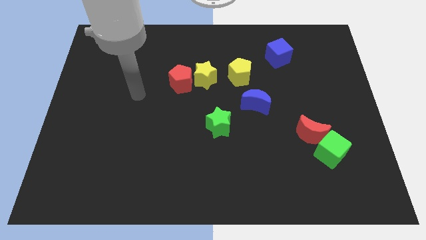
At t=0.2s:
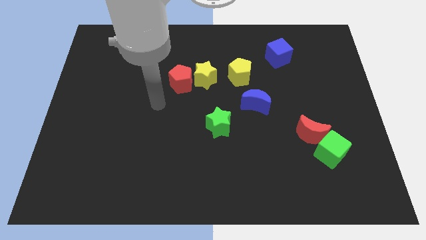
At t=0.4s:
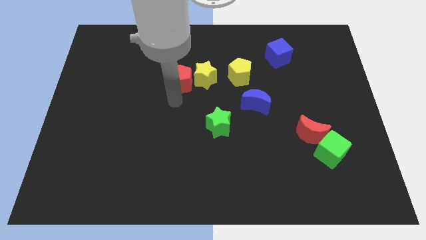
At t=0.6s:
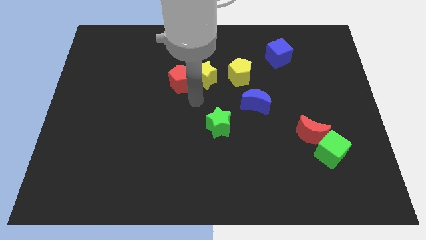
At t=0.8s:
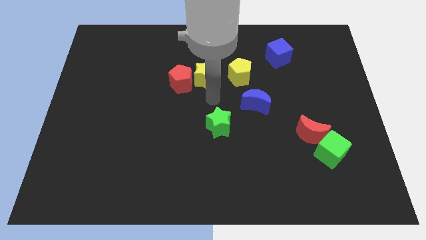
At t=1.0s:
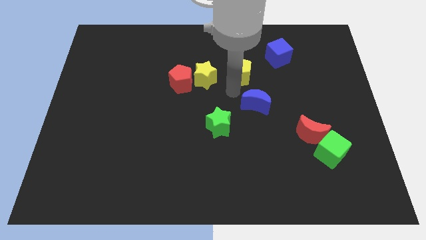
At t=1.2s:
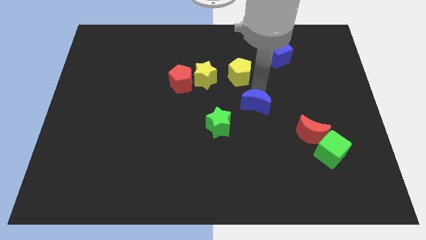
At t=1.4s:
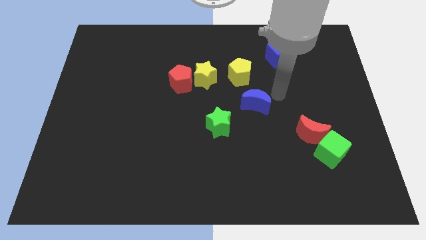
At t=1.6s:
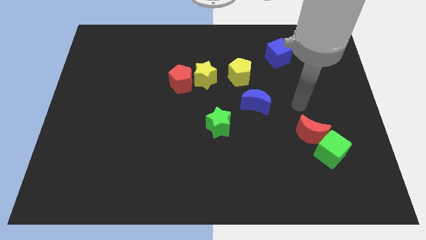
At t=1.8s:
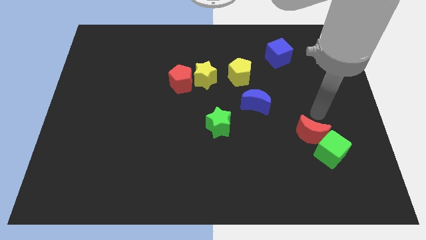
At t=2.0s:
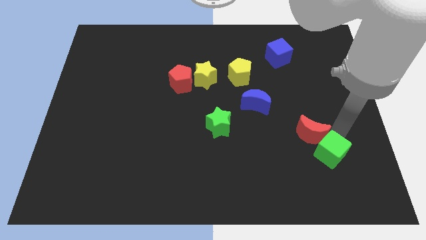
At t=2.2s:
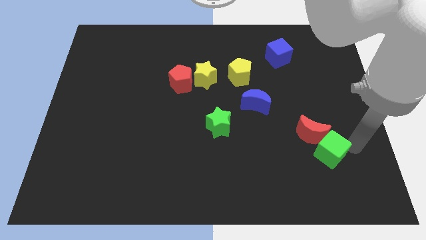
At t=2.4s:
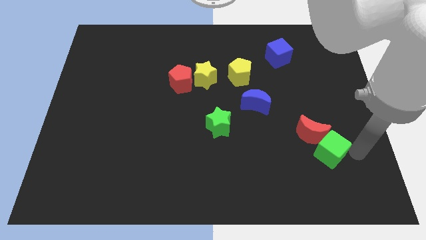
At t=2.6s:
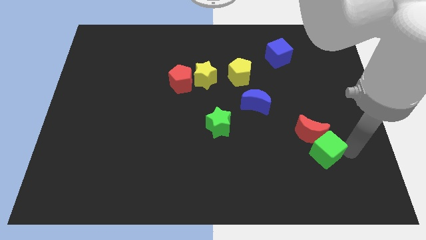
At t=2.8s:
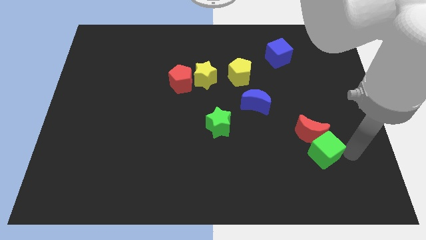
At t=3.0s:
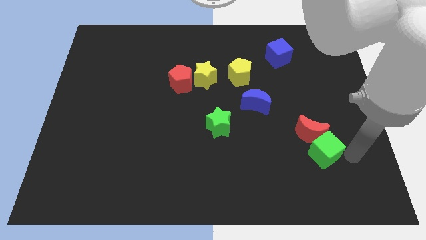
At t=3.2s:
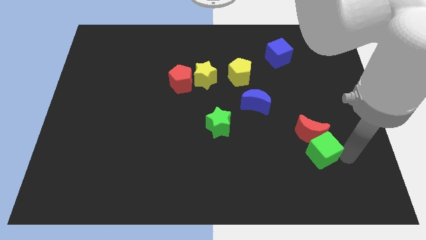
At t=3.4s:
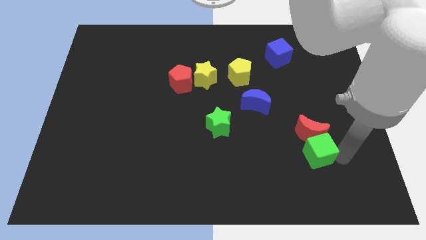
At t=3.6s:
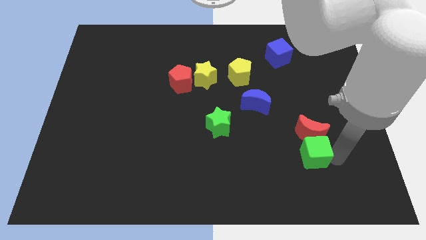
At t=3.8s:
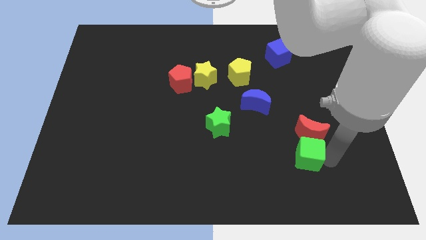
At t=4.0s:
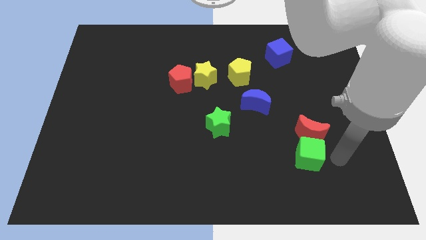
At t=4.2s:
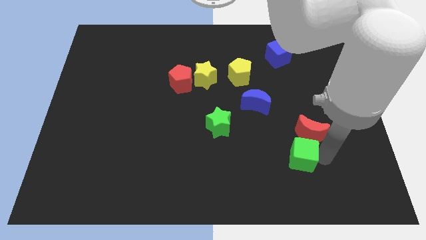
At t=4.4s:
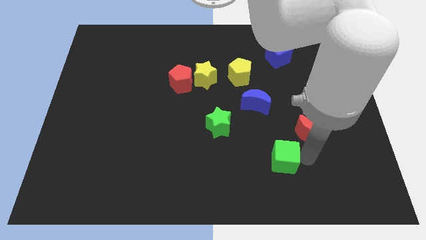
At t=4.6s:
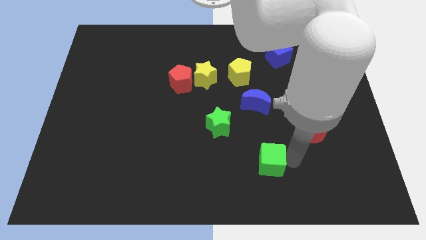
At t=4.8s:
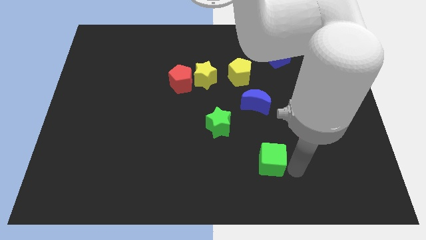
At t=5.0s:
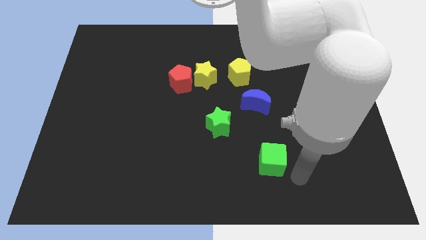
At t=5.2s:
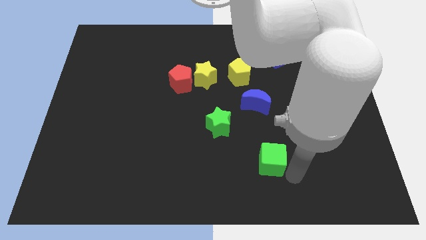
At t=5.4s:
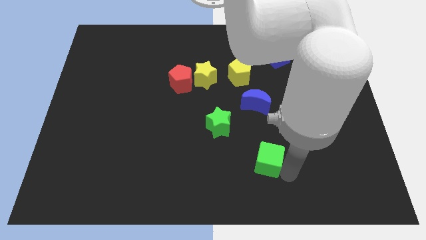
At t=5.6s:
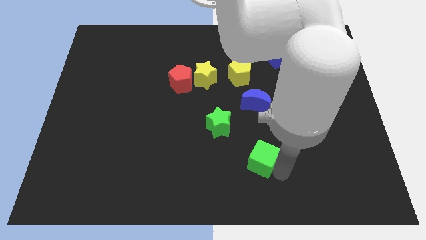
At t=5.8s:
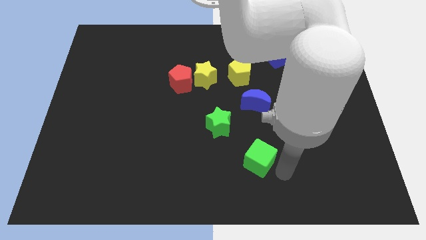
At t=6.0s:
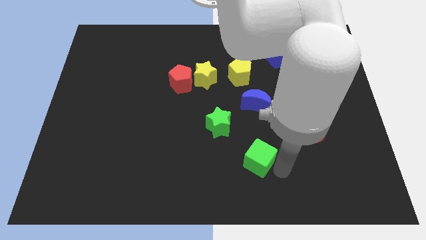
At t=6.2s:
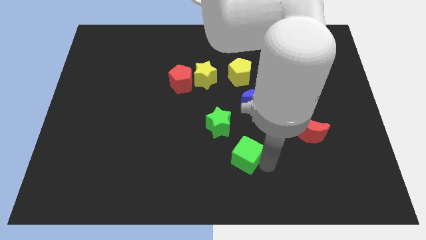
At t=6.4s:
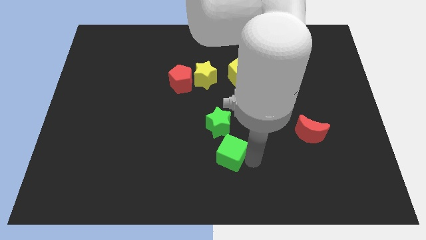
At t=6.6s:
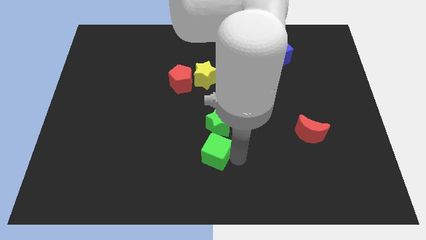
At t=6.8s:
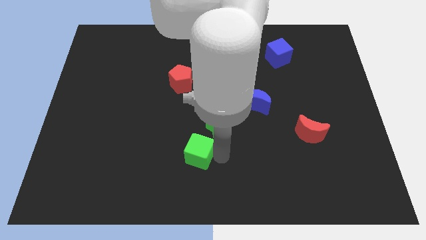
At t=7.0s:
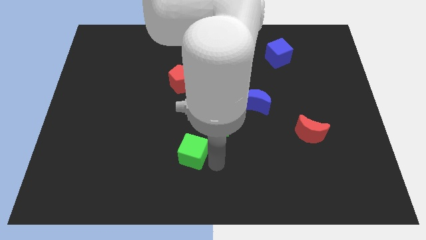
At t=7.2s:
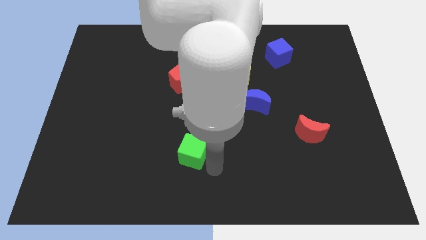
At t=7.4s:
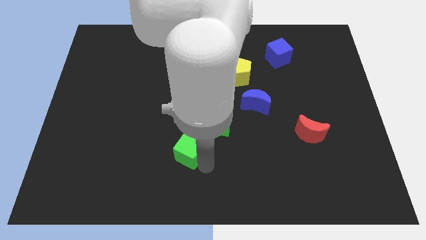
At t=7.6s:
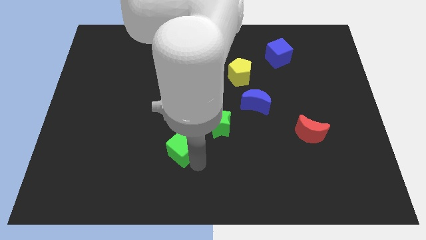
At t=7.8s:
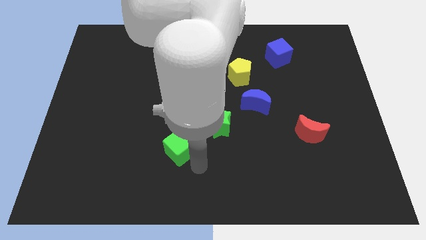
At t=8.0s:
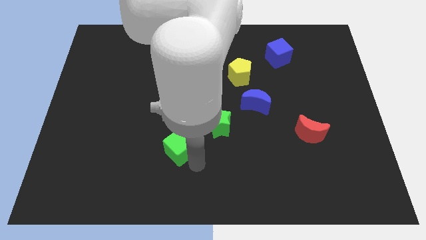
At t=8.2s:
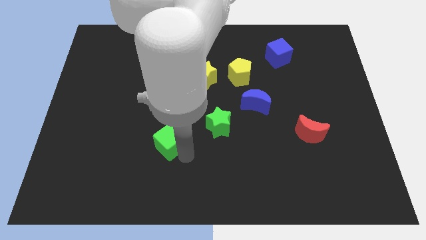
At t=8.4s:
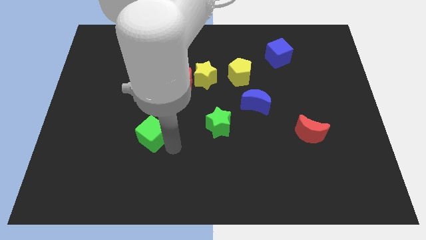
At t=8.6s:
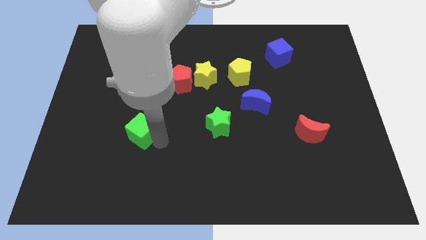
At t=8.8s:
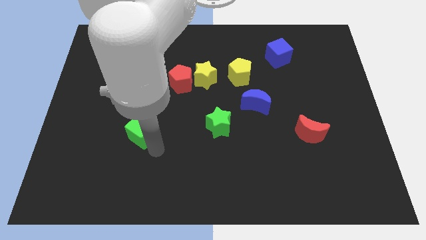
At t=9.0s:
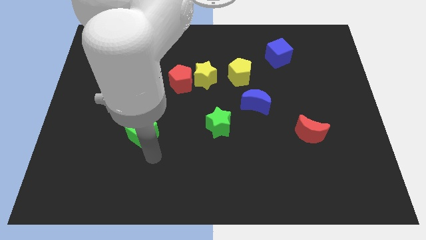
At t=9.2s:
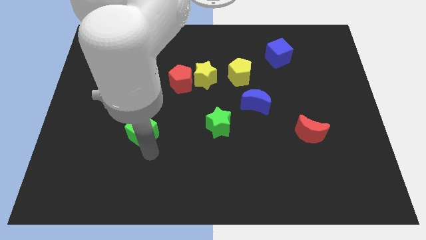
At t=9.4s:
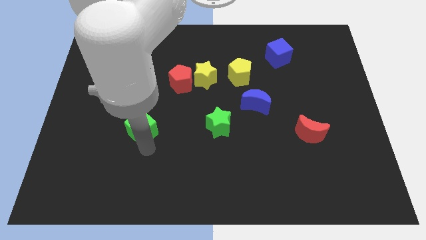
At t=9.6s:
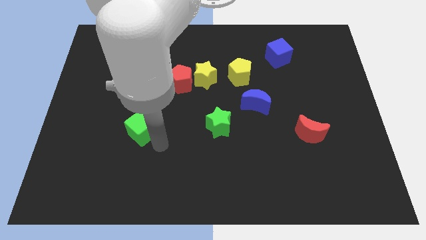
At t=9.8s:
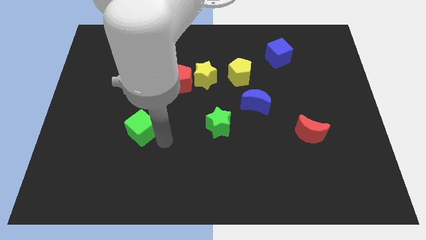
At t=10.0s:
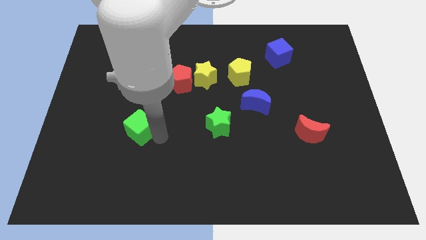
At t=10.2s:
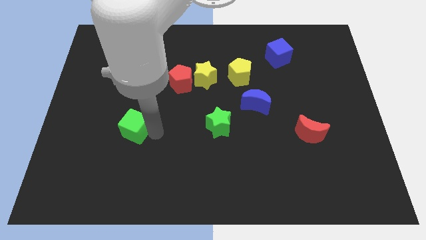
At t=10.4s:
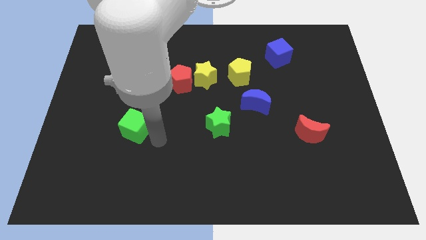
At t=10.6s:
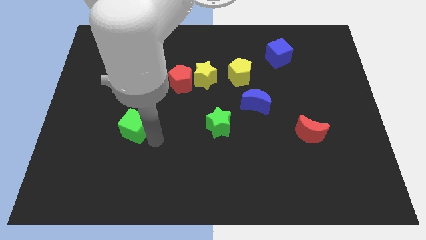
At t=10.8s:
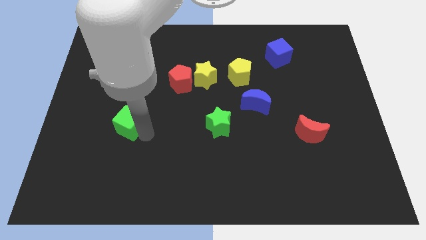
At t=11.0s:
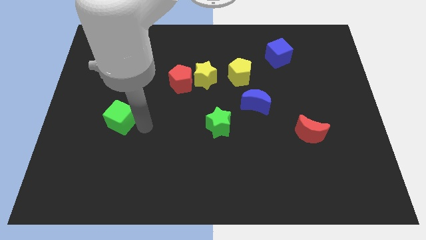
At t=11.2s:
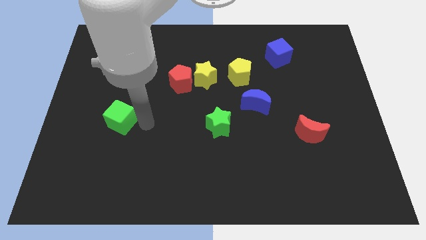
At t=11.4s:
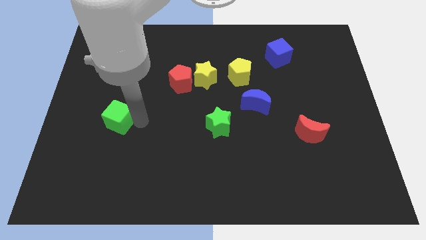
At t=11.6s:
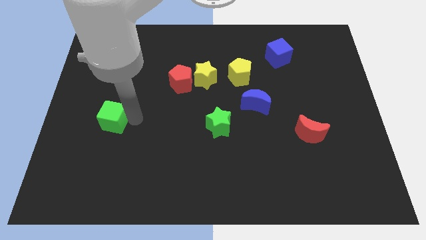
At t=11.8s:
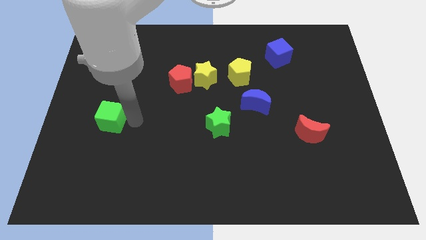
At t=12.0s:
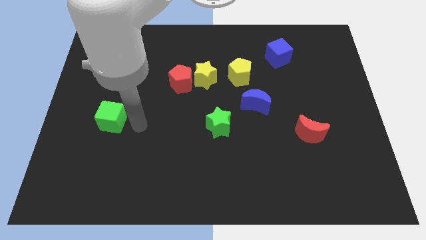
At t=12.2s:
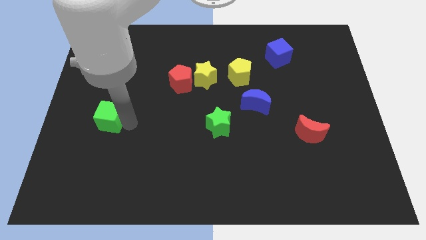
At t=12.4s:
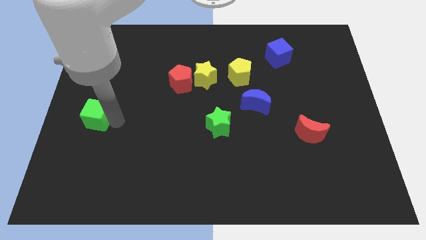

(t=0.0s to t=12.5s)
put the green cube to the left side
